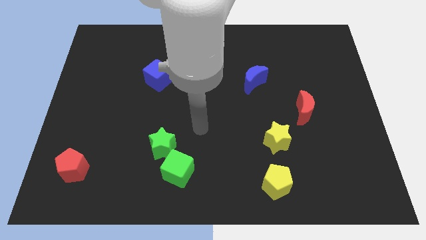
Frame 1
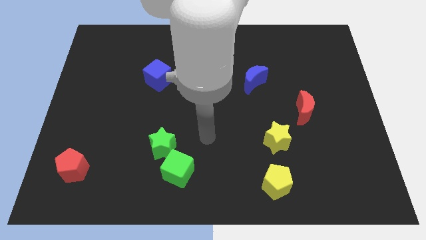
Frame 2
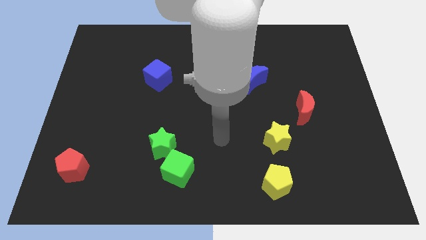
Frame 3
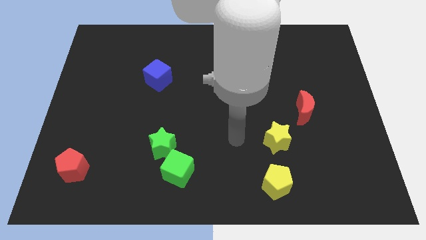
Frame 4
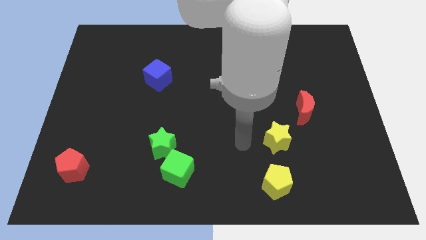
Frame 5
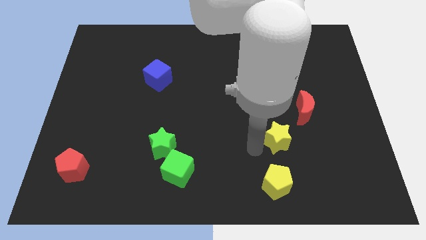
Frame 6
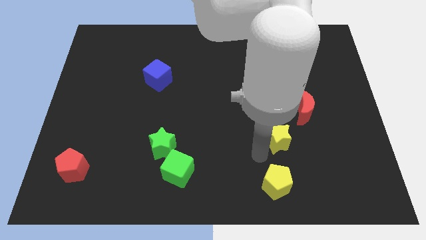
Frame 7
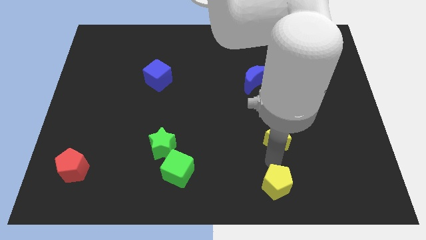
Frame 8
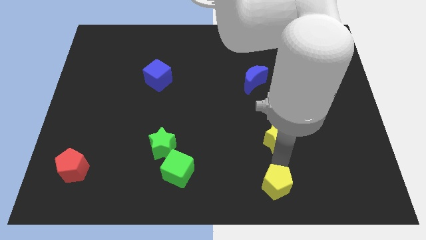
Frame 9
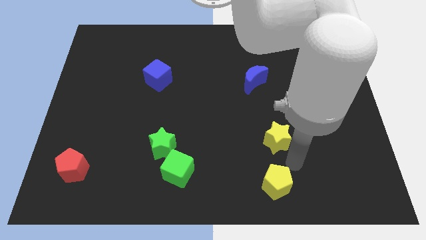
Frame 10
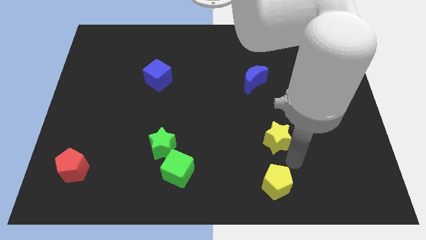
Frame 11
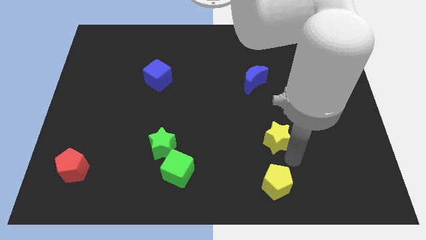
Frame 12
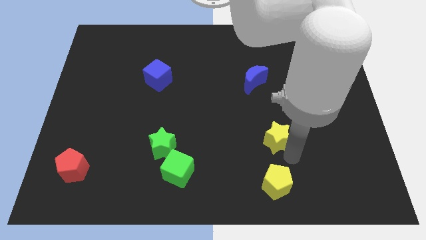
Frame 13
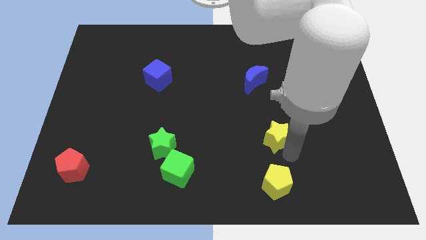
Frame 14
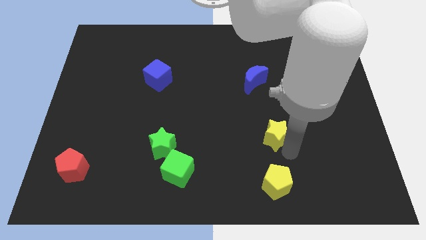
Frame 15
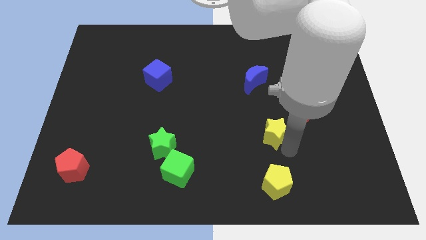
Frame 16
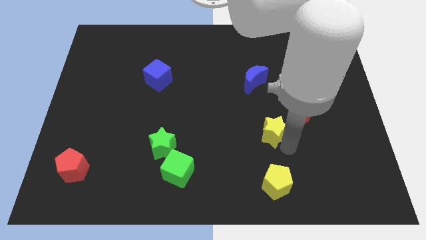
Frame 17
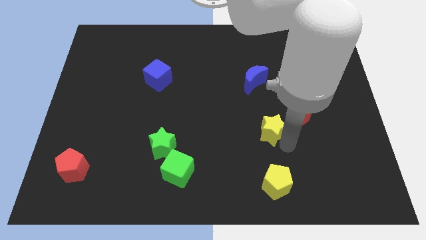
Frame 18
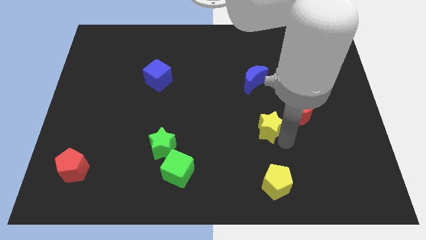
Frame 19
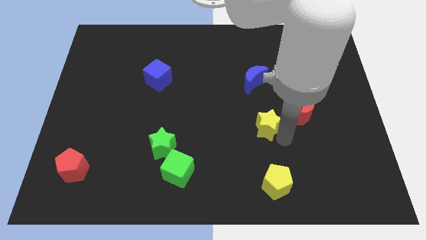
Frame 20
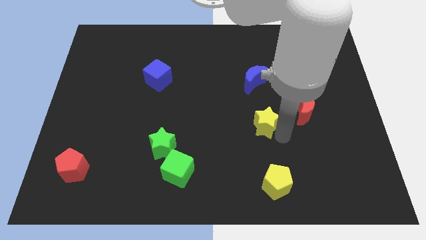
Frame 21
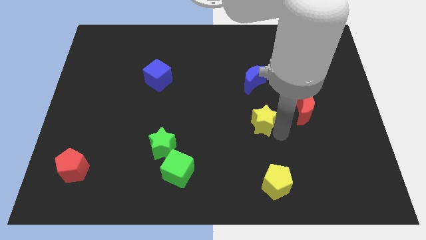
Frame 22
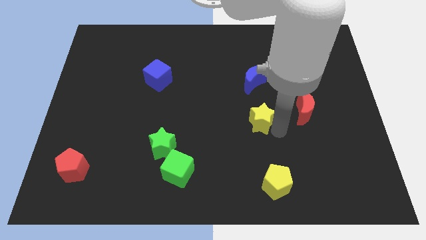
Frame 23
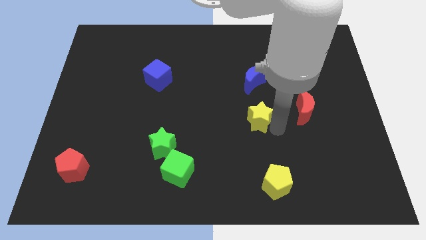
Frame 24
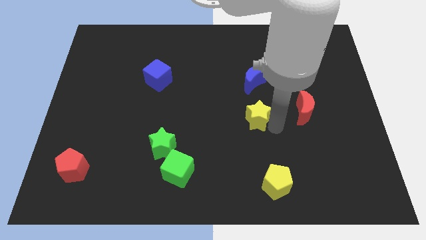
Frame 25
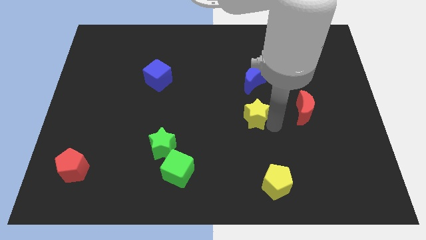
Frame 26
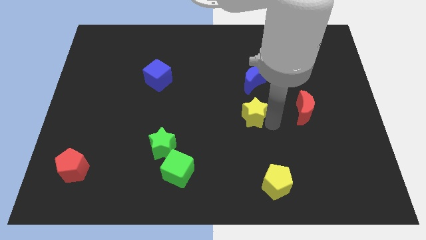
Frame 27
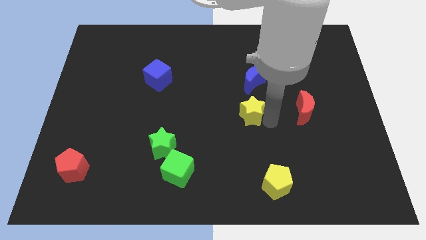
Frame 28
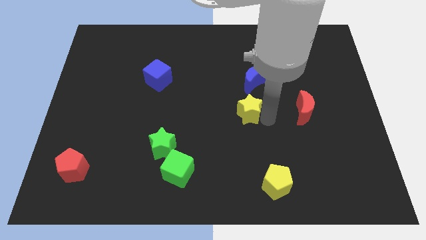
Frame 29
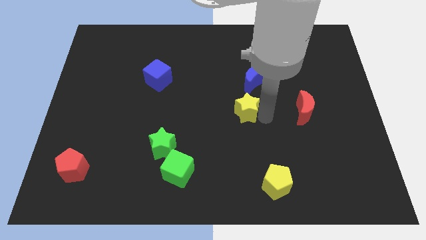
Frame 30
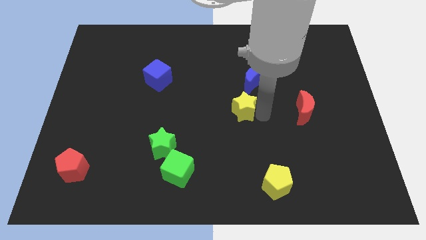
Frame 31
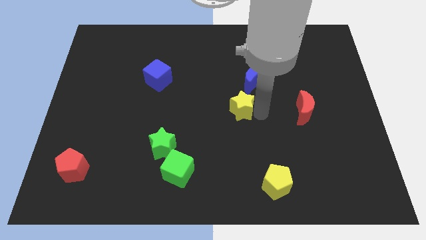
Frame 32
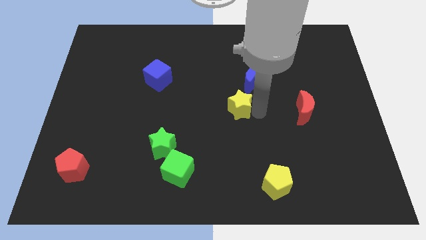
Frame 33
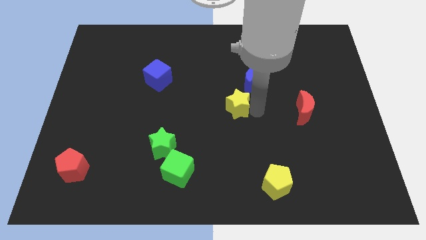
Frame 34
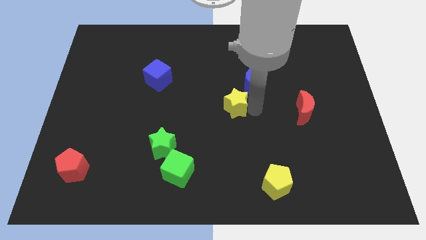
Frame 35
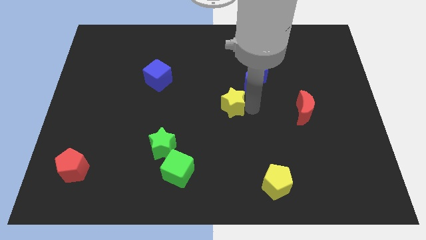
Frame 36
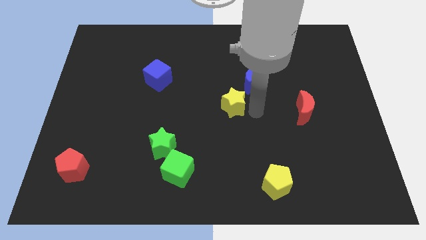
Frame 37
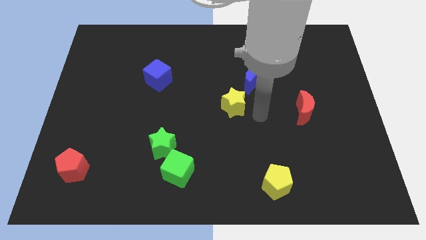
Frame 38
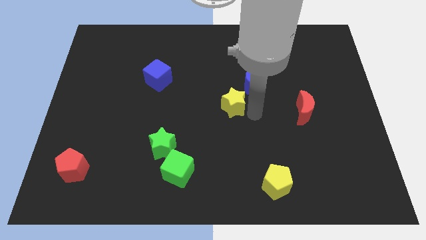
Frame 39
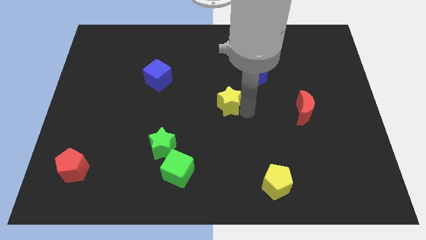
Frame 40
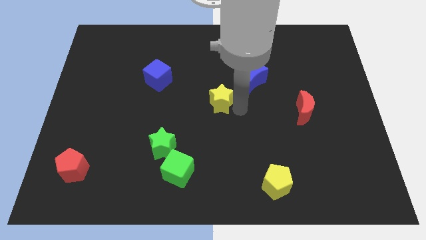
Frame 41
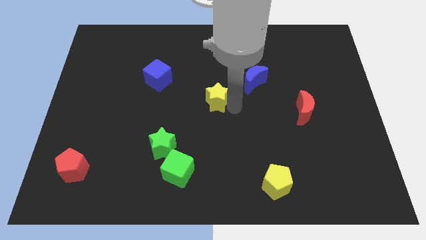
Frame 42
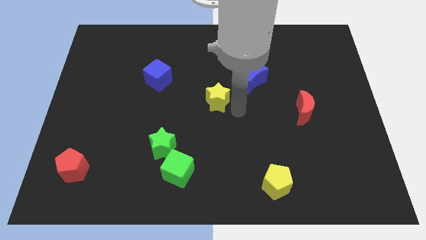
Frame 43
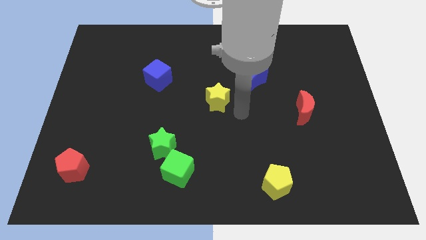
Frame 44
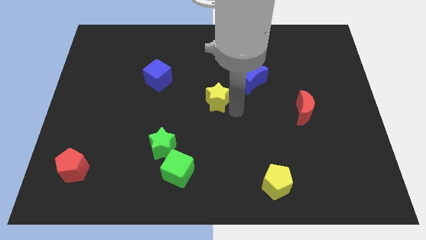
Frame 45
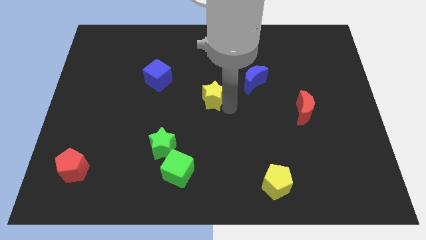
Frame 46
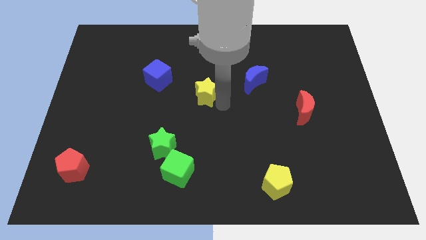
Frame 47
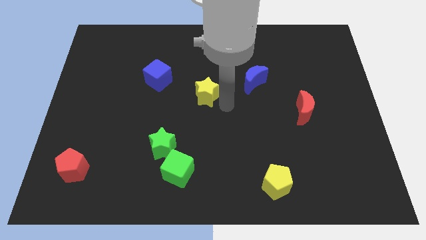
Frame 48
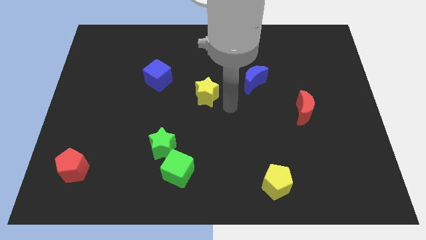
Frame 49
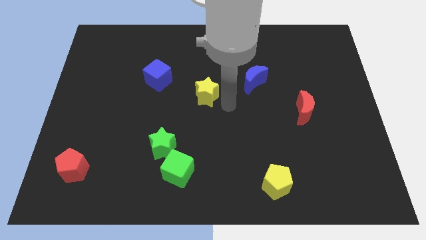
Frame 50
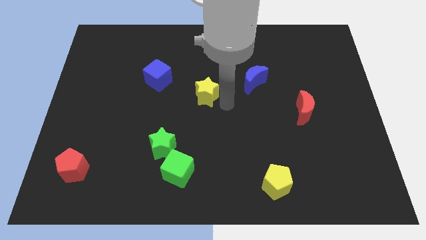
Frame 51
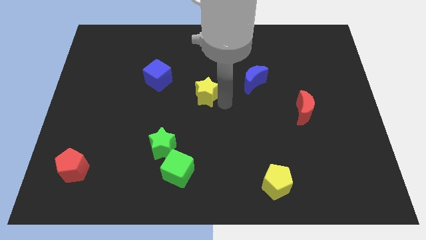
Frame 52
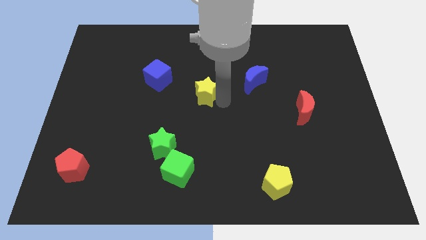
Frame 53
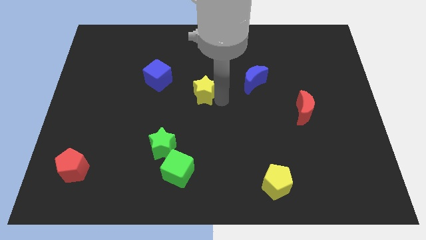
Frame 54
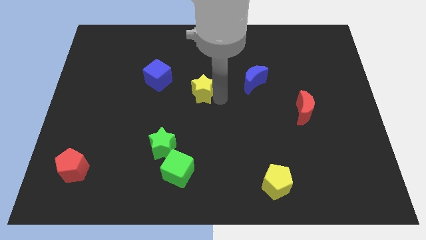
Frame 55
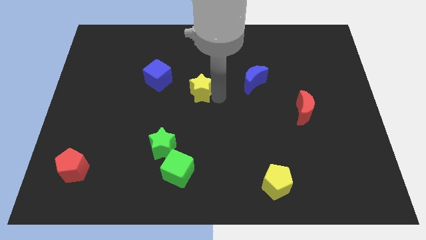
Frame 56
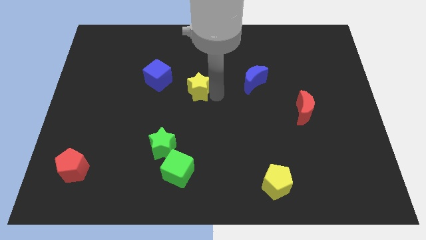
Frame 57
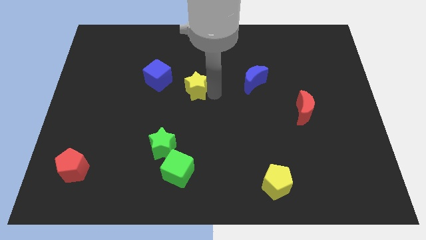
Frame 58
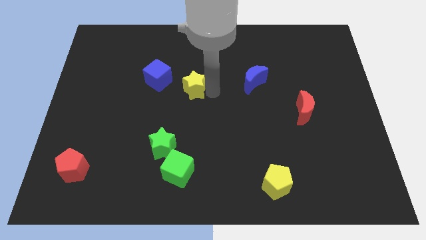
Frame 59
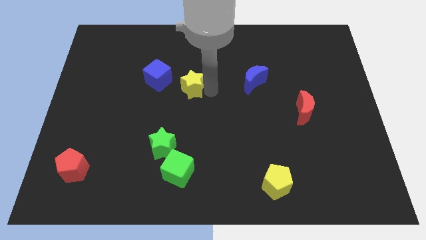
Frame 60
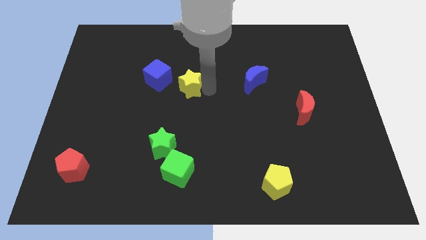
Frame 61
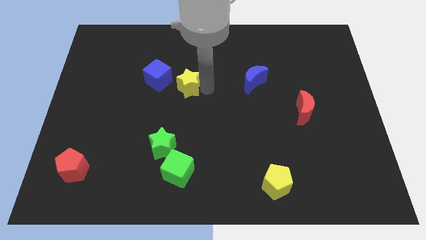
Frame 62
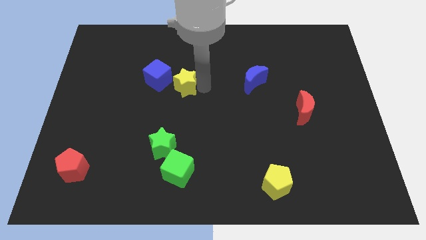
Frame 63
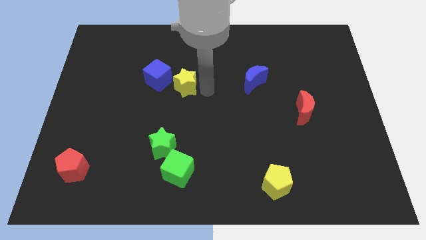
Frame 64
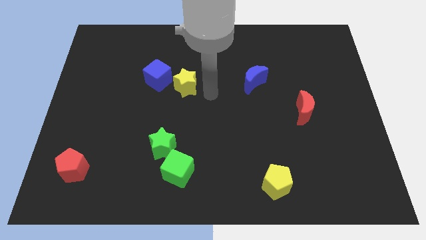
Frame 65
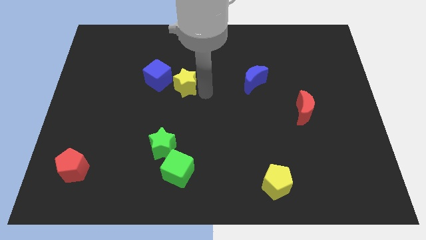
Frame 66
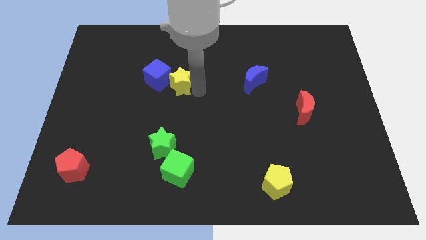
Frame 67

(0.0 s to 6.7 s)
move the yellow star towards the blue cube
